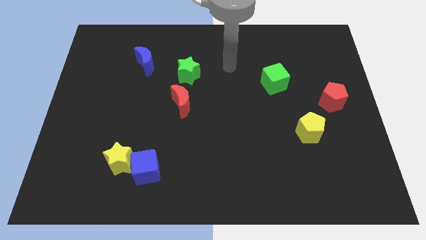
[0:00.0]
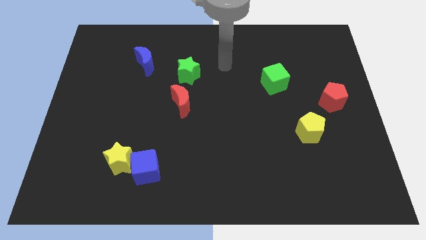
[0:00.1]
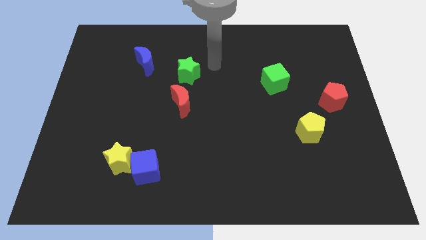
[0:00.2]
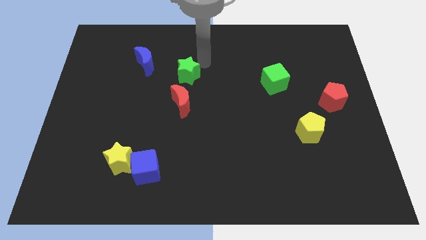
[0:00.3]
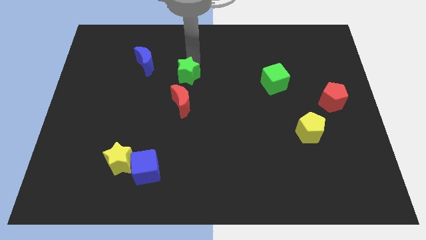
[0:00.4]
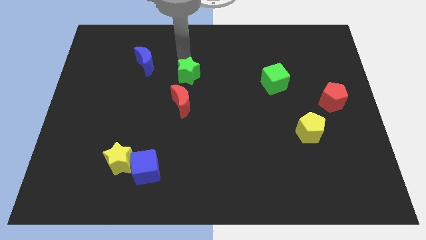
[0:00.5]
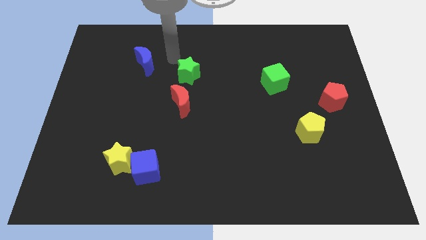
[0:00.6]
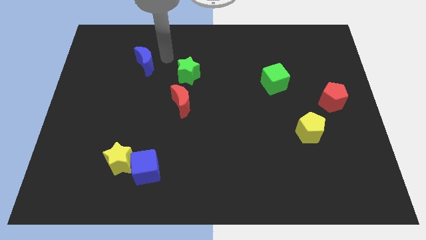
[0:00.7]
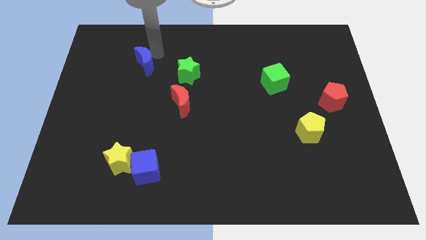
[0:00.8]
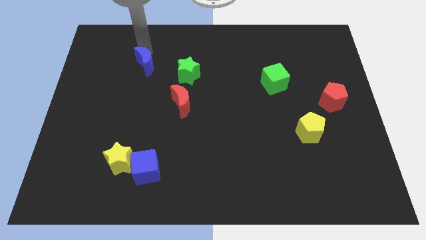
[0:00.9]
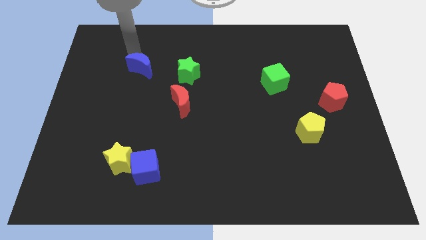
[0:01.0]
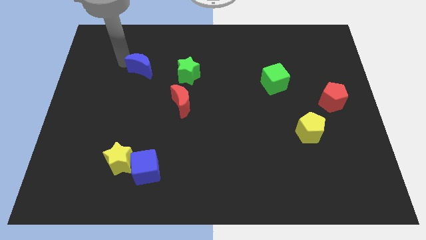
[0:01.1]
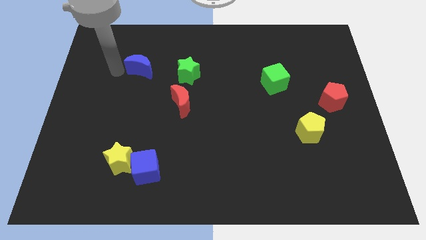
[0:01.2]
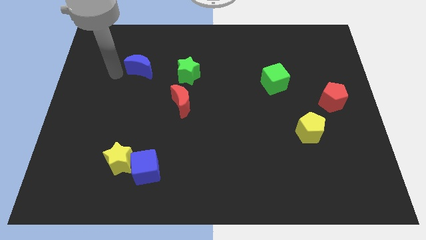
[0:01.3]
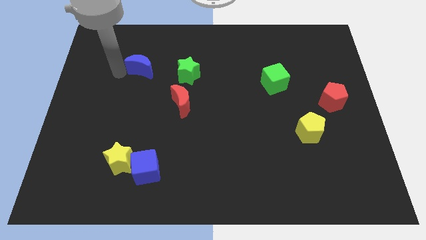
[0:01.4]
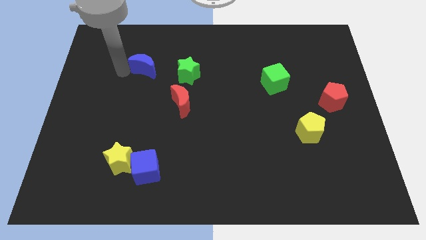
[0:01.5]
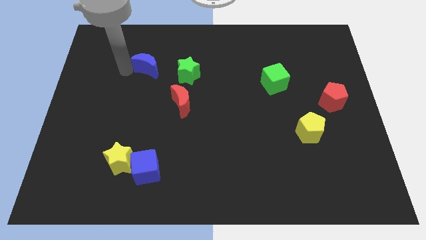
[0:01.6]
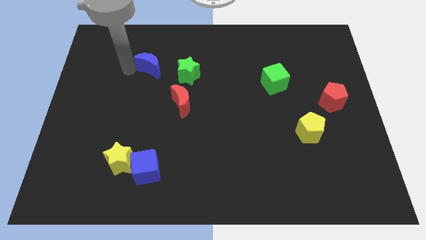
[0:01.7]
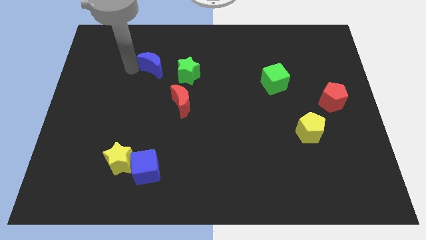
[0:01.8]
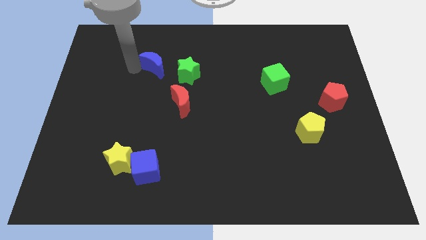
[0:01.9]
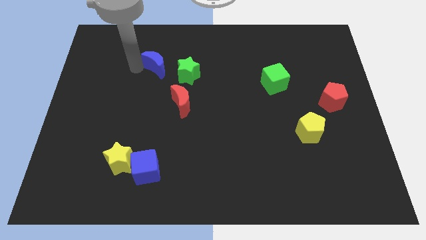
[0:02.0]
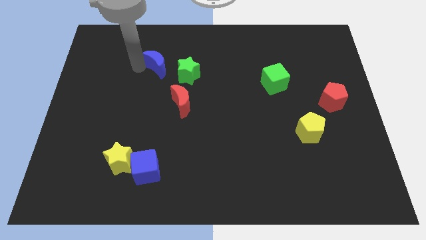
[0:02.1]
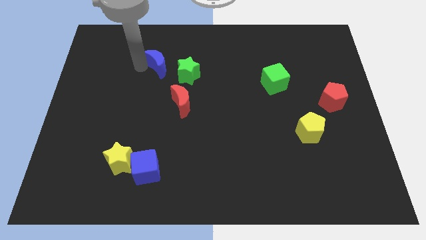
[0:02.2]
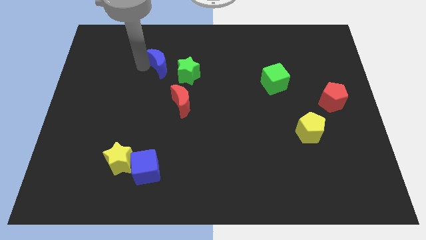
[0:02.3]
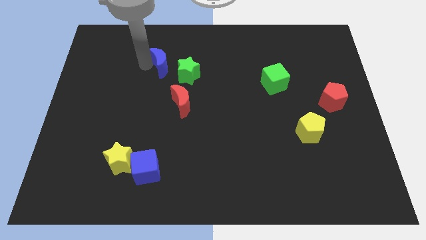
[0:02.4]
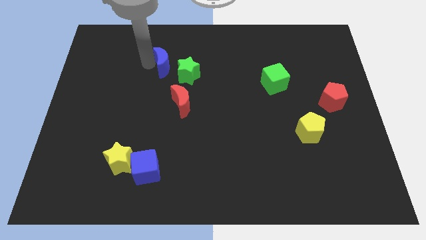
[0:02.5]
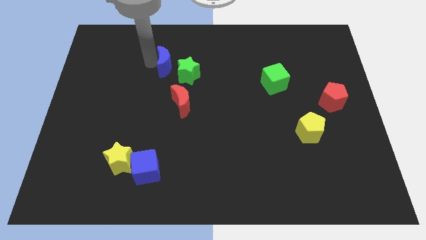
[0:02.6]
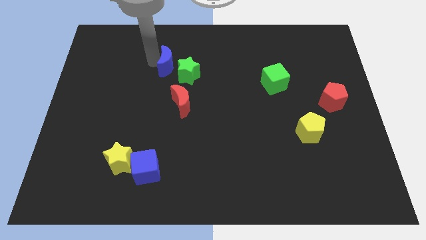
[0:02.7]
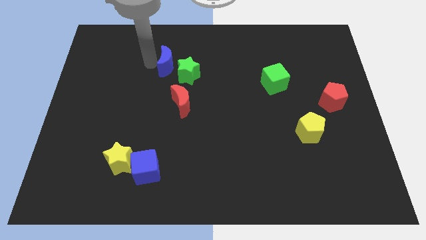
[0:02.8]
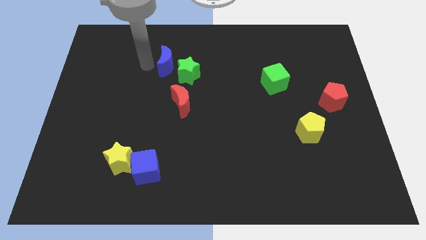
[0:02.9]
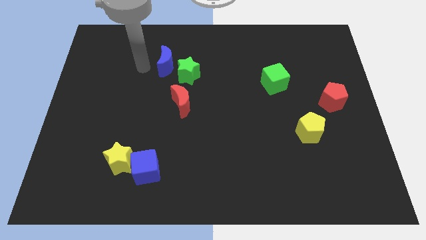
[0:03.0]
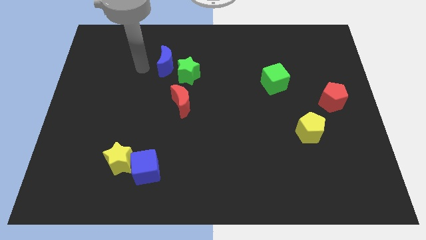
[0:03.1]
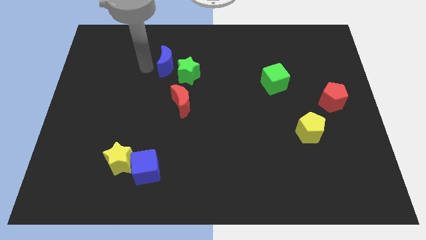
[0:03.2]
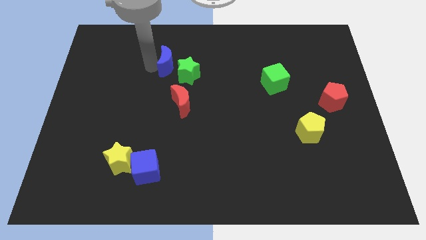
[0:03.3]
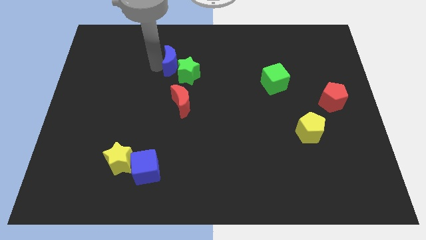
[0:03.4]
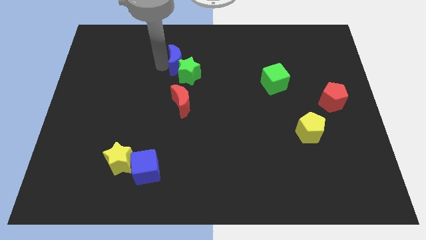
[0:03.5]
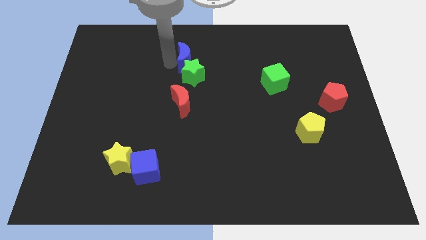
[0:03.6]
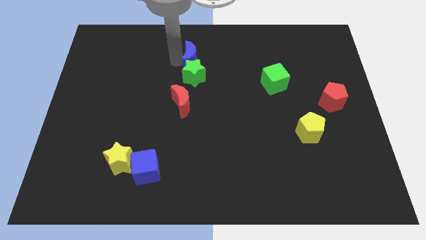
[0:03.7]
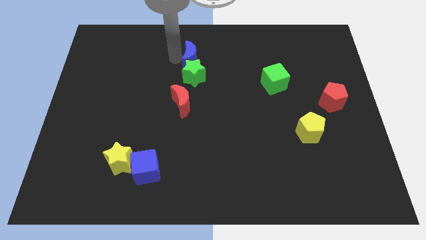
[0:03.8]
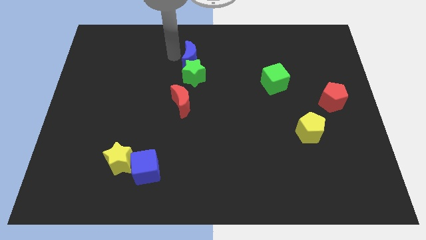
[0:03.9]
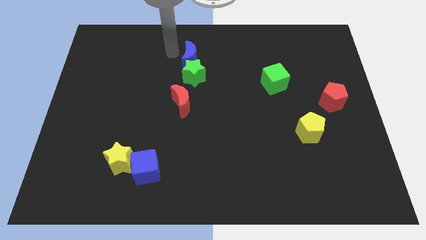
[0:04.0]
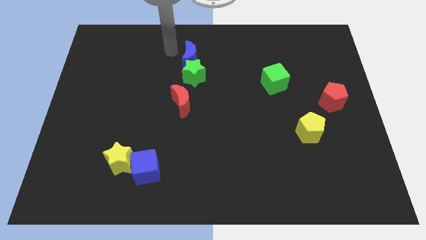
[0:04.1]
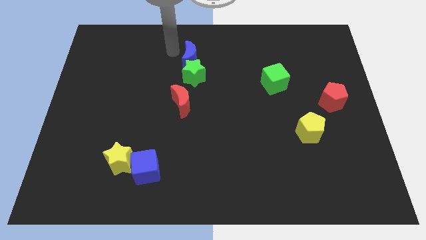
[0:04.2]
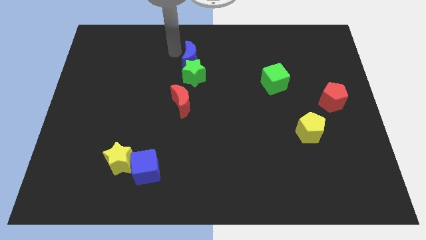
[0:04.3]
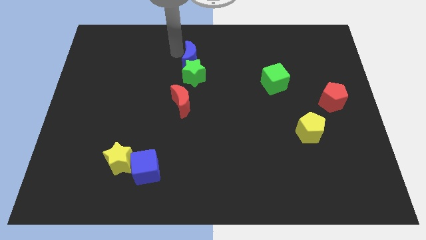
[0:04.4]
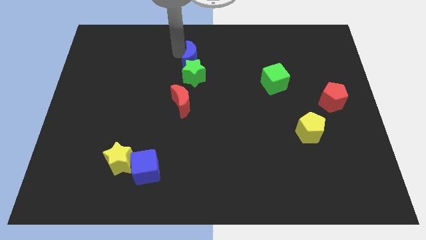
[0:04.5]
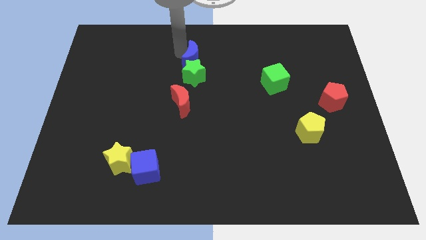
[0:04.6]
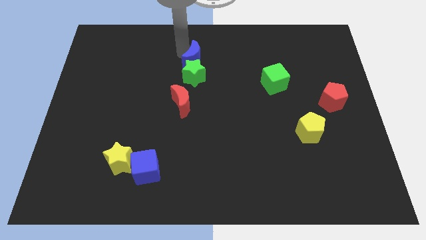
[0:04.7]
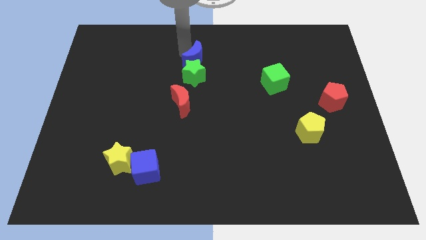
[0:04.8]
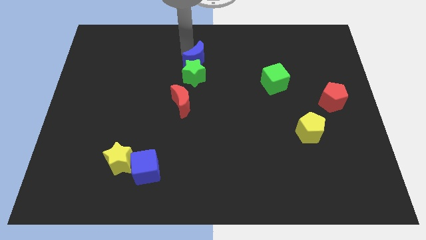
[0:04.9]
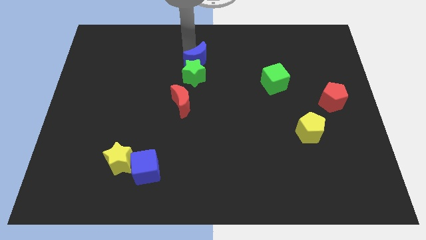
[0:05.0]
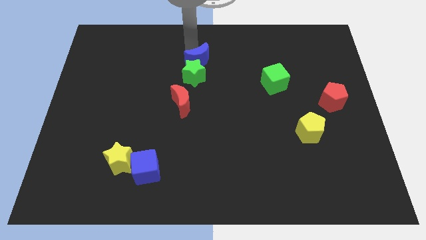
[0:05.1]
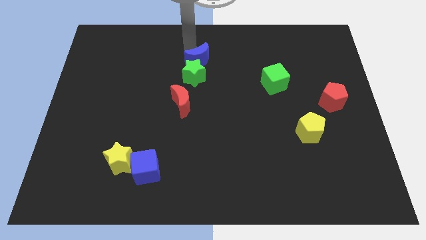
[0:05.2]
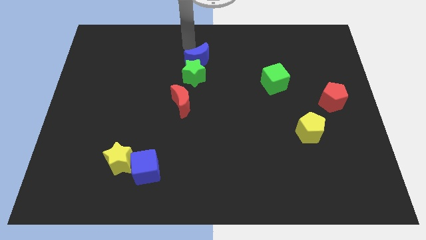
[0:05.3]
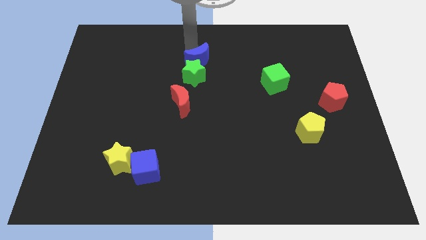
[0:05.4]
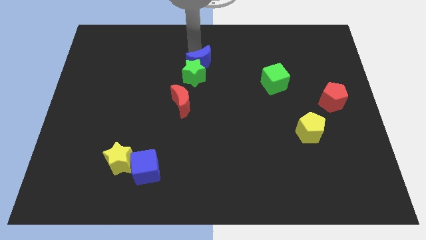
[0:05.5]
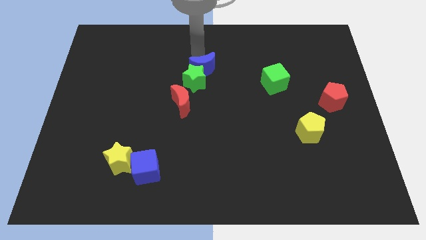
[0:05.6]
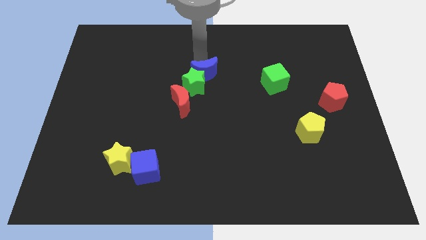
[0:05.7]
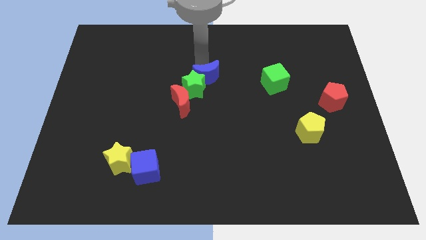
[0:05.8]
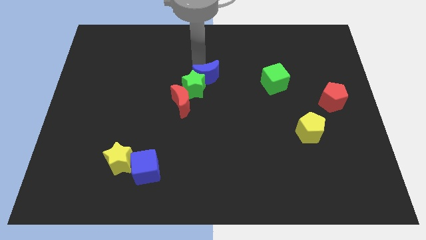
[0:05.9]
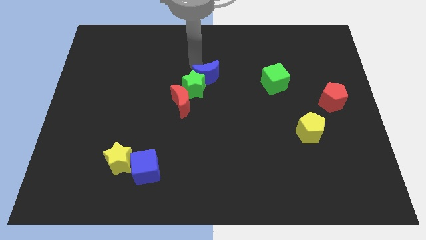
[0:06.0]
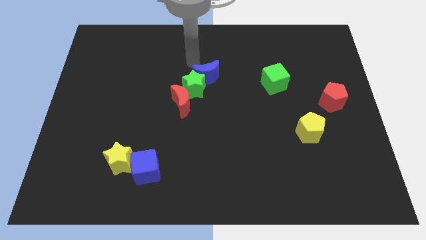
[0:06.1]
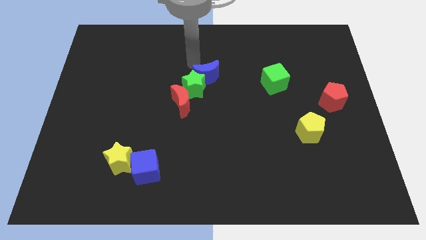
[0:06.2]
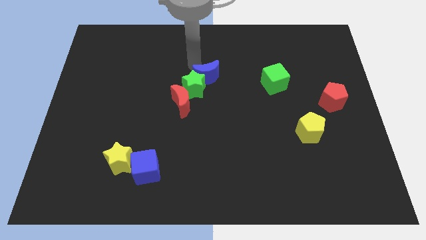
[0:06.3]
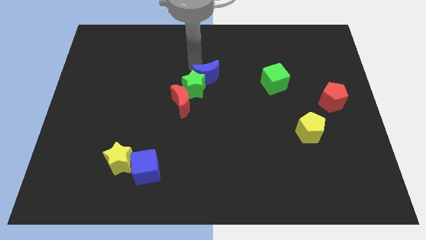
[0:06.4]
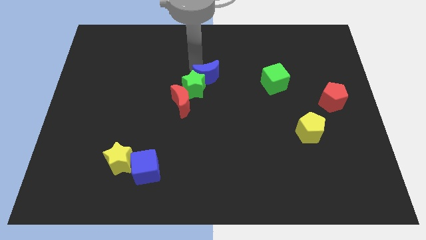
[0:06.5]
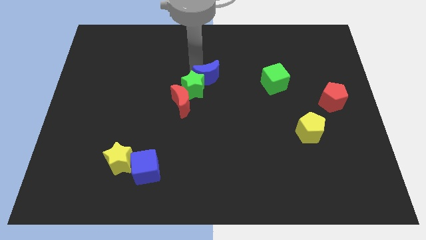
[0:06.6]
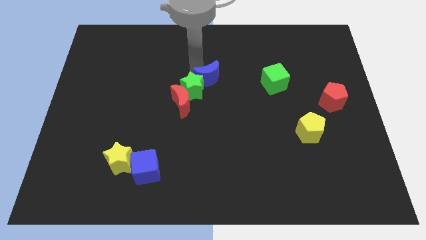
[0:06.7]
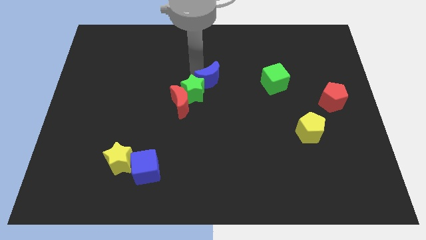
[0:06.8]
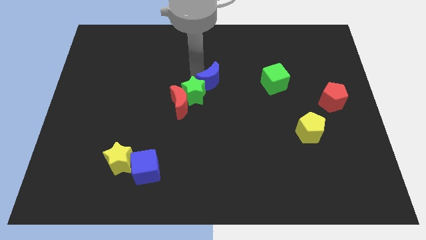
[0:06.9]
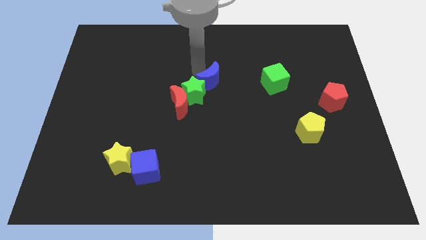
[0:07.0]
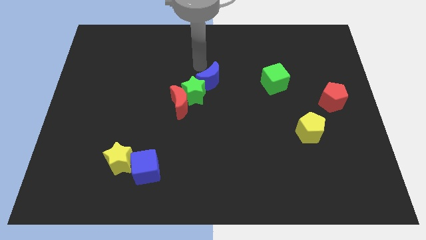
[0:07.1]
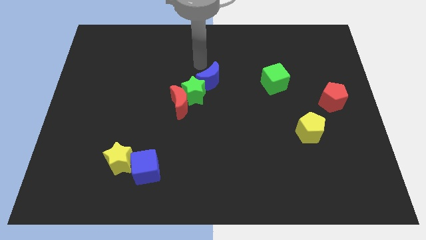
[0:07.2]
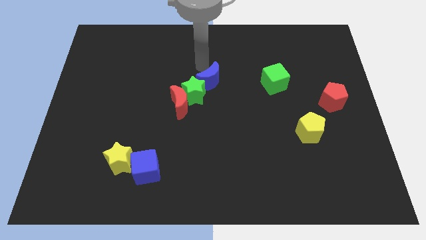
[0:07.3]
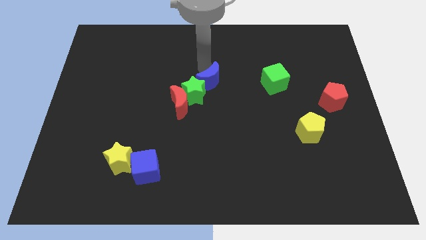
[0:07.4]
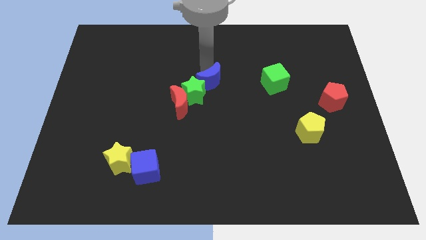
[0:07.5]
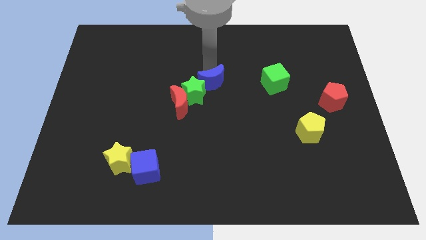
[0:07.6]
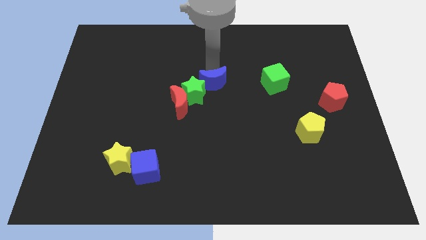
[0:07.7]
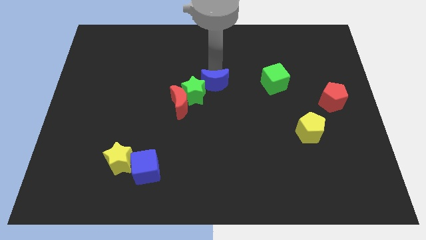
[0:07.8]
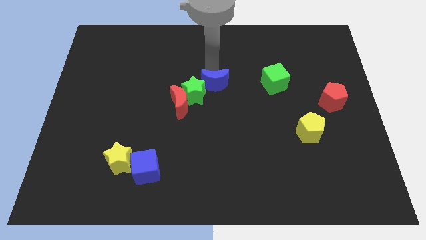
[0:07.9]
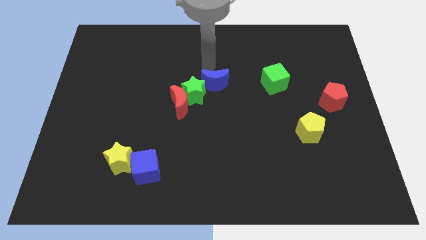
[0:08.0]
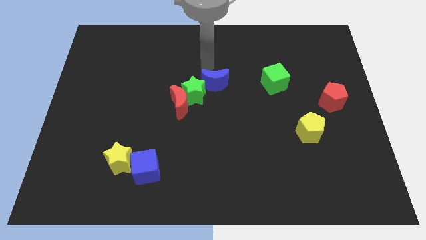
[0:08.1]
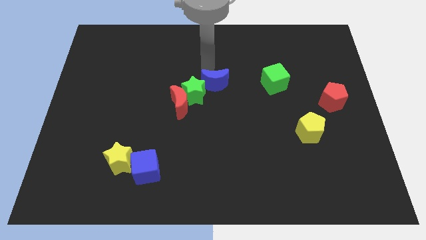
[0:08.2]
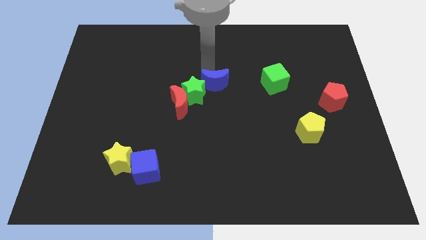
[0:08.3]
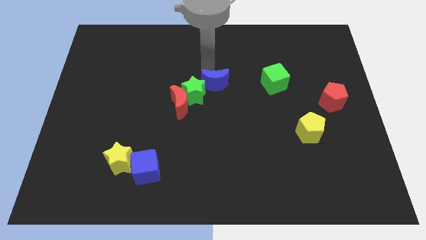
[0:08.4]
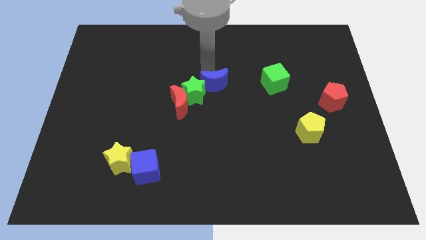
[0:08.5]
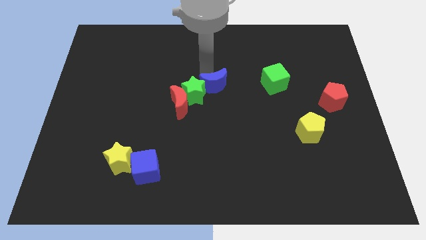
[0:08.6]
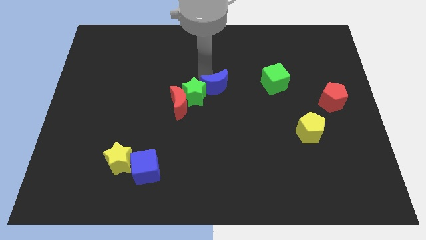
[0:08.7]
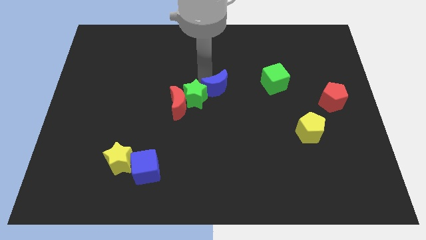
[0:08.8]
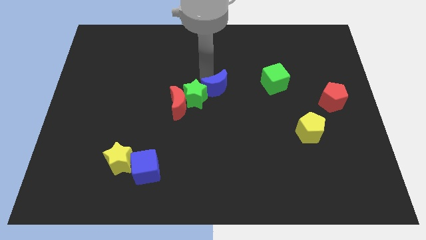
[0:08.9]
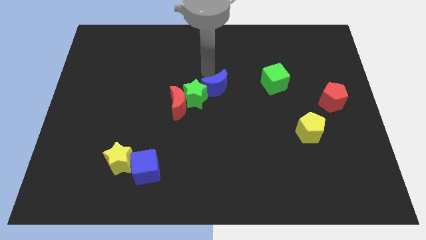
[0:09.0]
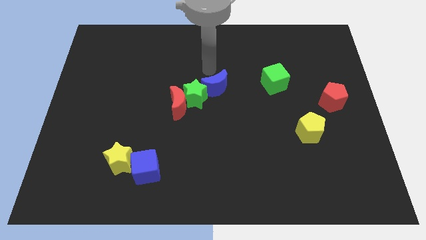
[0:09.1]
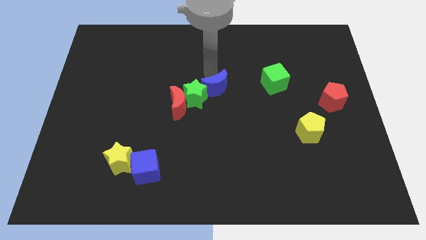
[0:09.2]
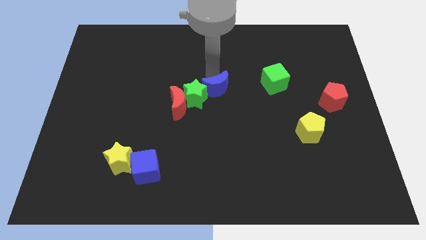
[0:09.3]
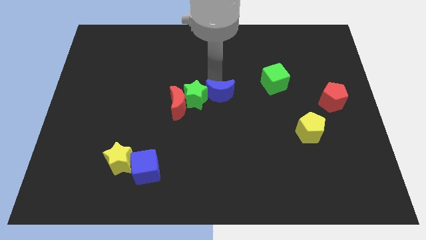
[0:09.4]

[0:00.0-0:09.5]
move the blue moon to the right of the red moon
